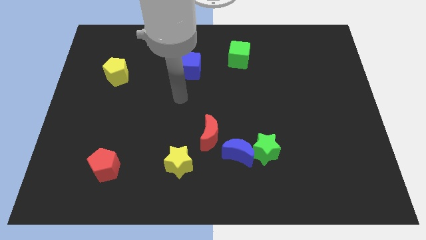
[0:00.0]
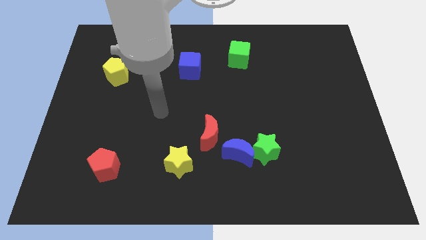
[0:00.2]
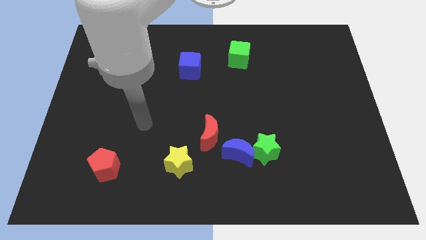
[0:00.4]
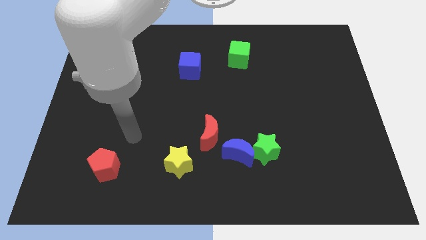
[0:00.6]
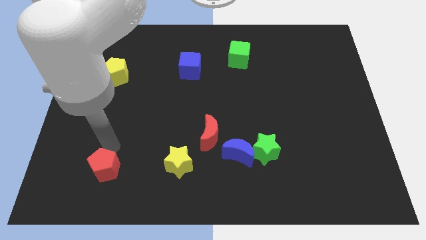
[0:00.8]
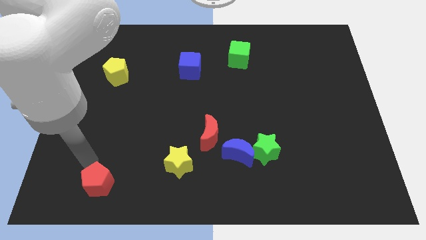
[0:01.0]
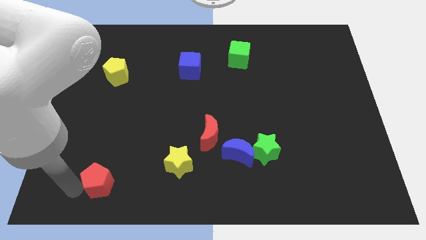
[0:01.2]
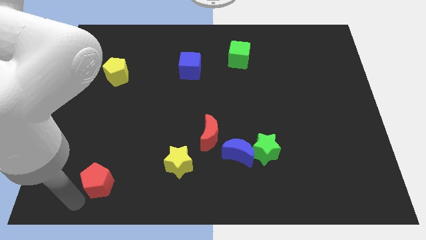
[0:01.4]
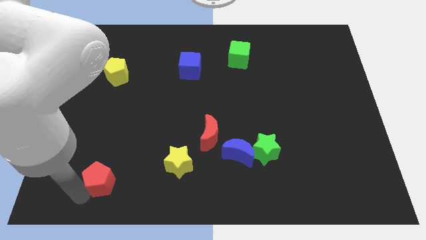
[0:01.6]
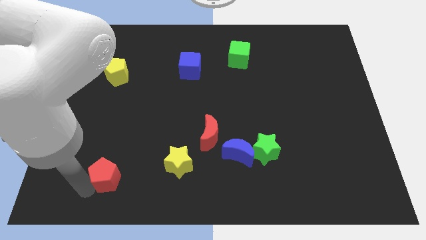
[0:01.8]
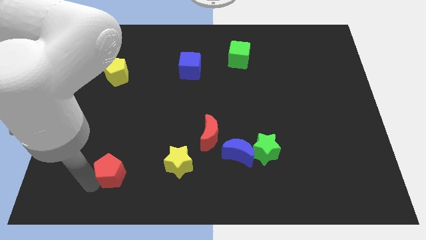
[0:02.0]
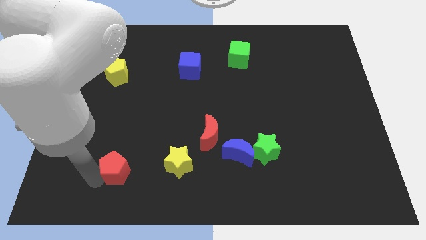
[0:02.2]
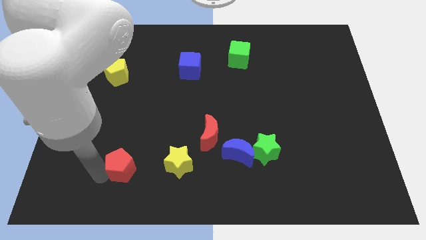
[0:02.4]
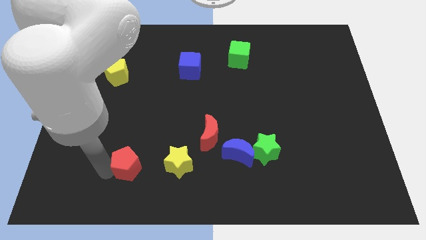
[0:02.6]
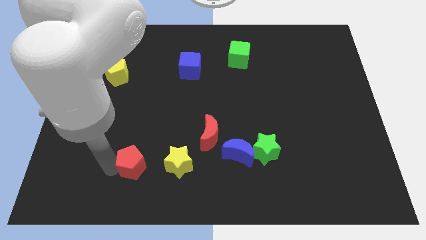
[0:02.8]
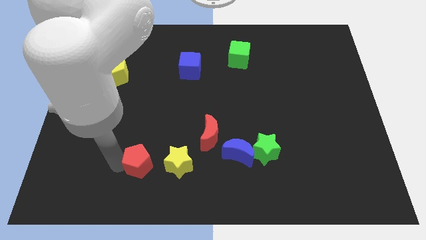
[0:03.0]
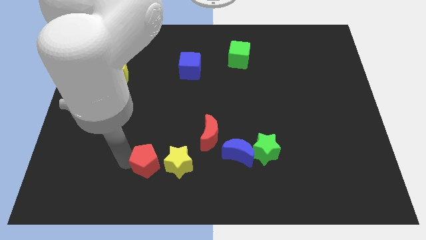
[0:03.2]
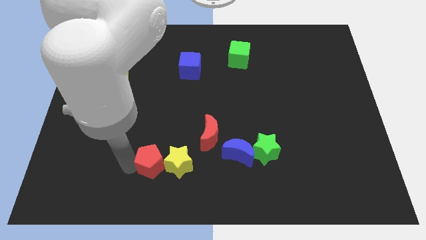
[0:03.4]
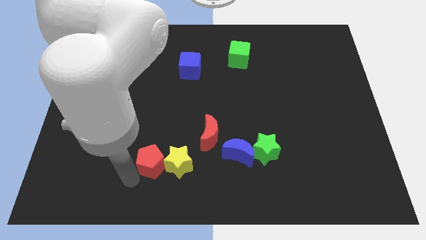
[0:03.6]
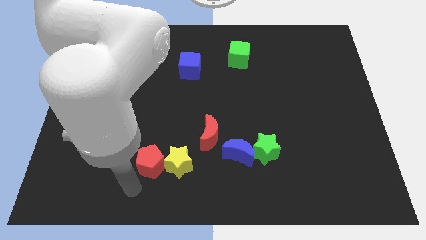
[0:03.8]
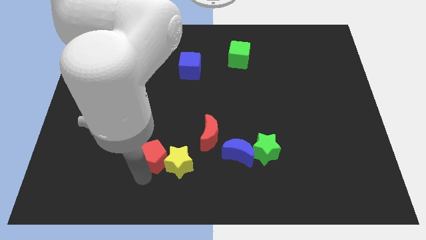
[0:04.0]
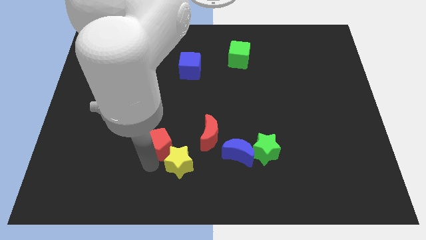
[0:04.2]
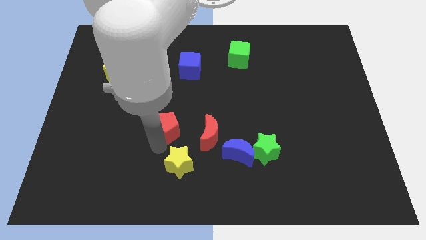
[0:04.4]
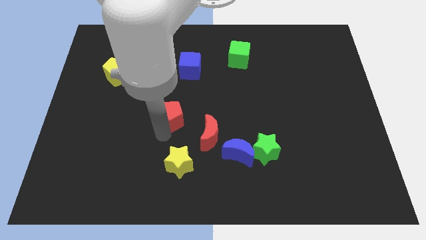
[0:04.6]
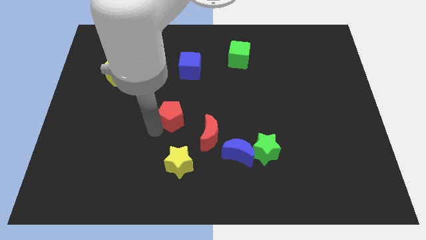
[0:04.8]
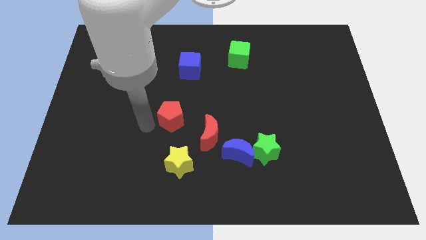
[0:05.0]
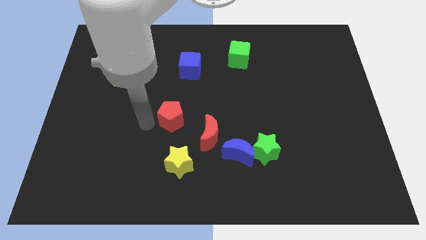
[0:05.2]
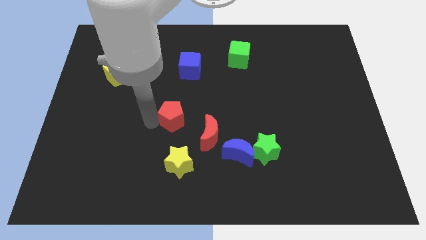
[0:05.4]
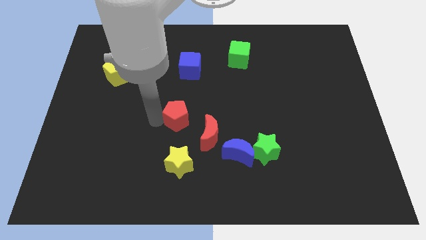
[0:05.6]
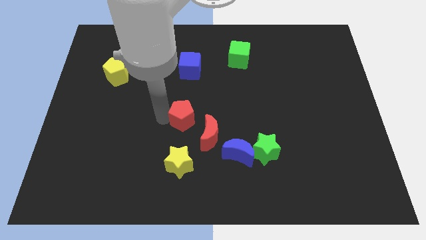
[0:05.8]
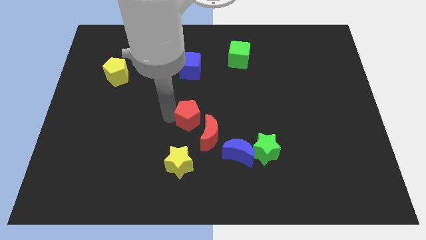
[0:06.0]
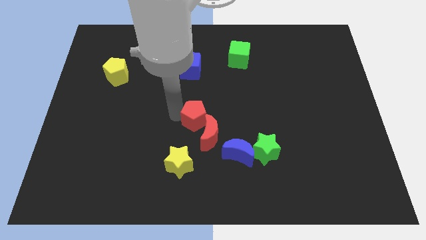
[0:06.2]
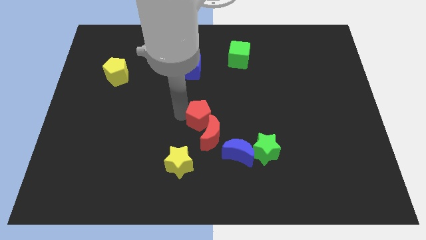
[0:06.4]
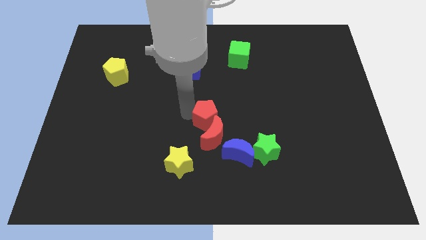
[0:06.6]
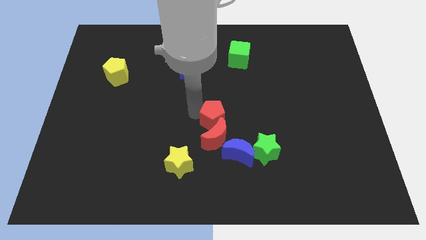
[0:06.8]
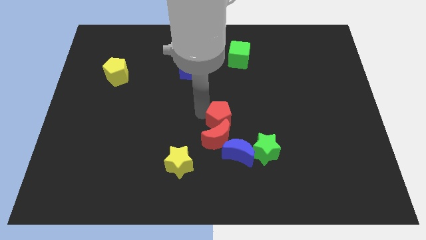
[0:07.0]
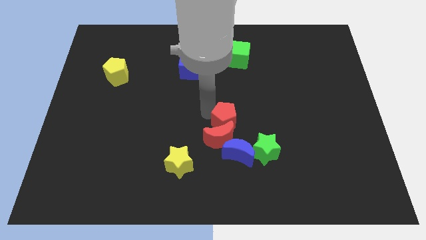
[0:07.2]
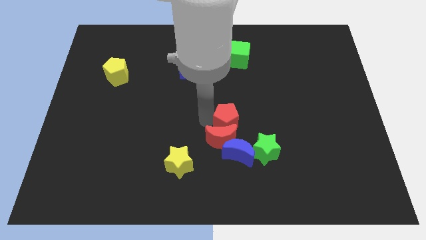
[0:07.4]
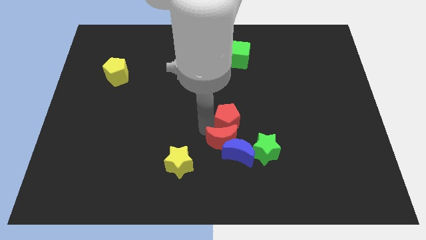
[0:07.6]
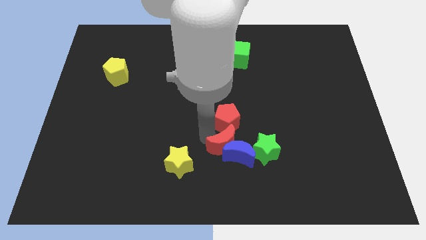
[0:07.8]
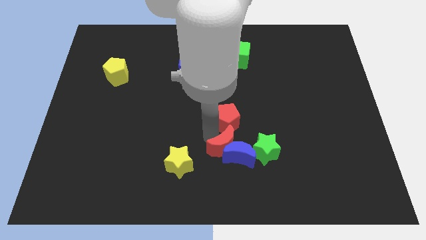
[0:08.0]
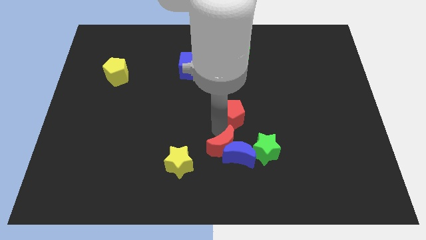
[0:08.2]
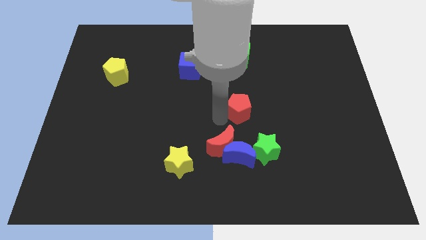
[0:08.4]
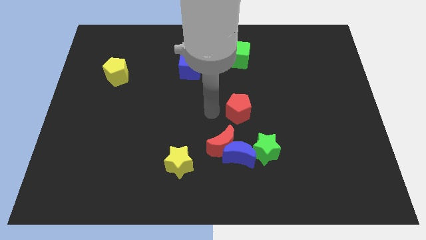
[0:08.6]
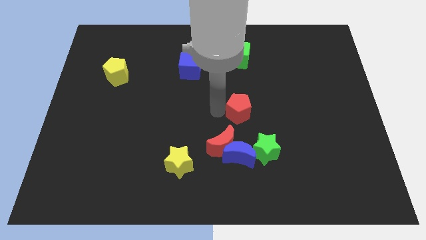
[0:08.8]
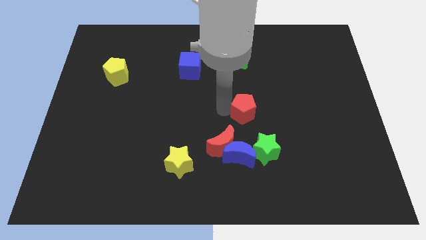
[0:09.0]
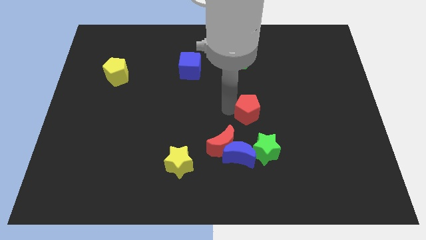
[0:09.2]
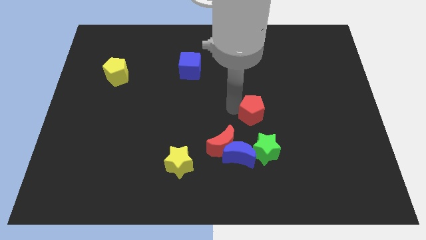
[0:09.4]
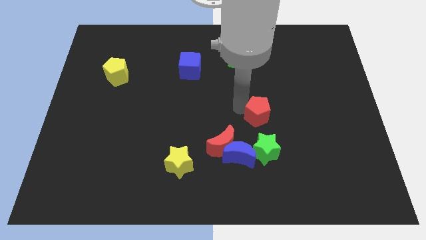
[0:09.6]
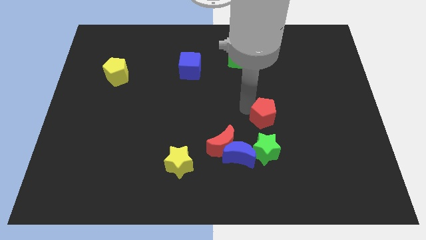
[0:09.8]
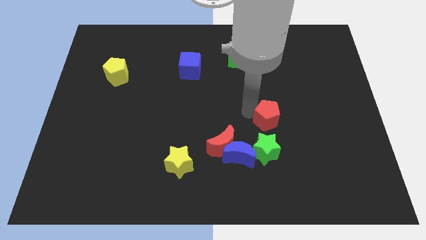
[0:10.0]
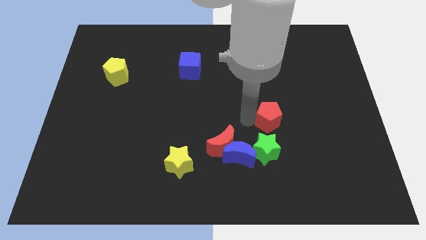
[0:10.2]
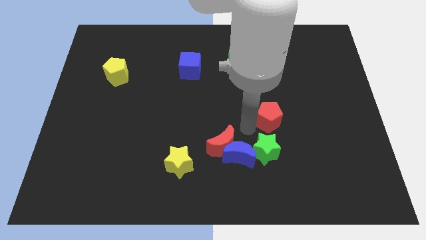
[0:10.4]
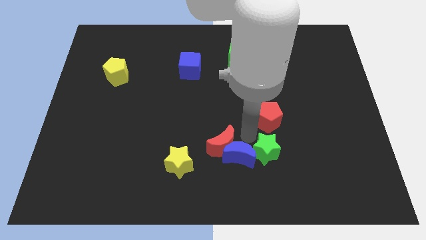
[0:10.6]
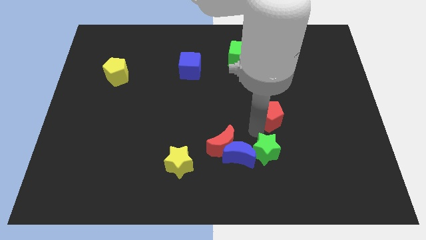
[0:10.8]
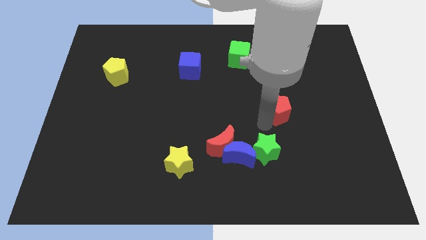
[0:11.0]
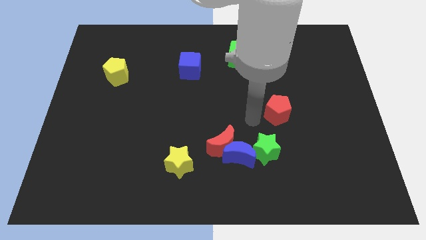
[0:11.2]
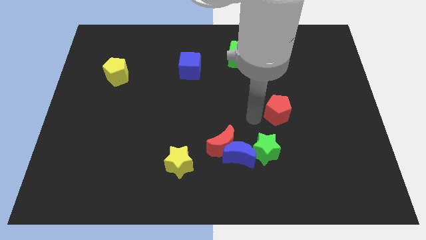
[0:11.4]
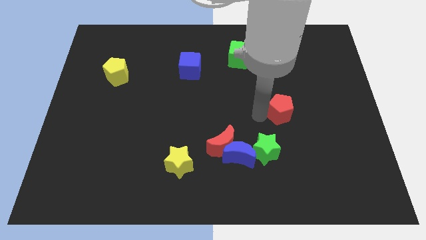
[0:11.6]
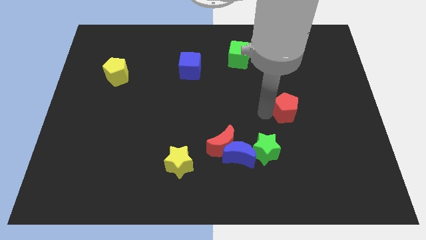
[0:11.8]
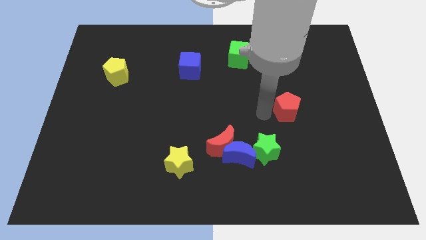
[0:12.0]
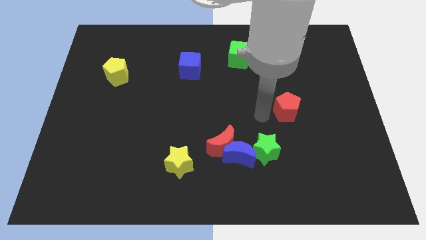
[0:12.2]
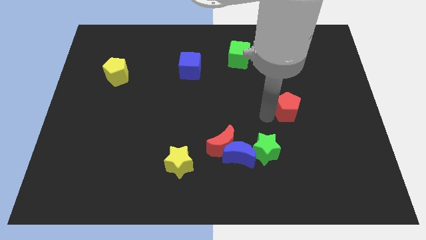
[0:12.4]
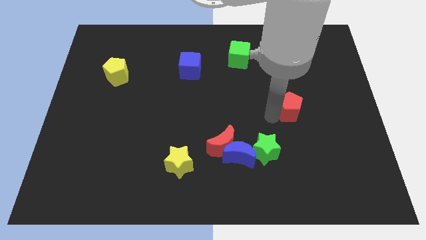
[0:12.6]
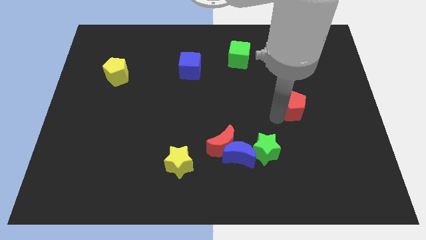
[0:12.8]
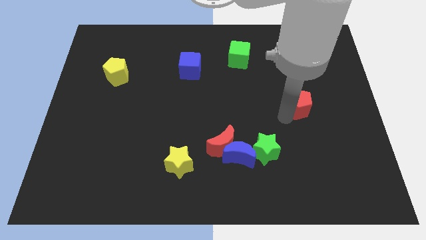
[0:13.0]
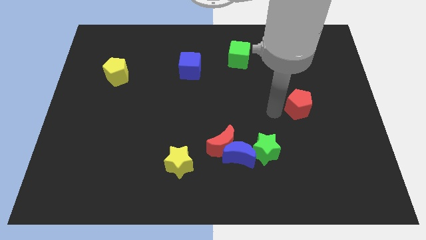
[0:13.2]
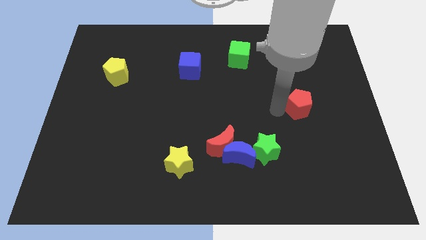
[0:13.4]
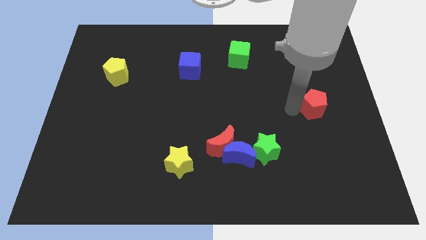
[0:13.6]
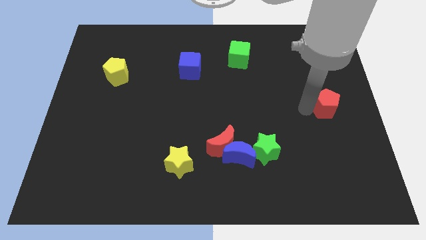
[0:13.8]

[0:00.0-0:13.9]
move the red pentagon to the center right
